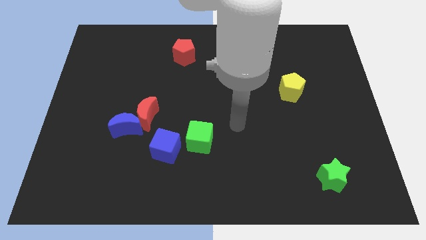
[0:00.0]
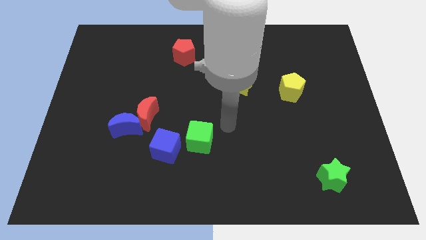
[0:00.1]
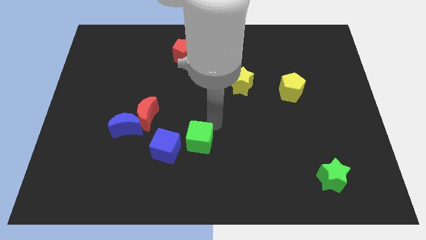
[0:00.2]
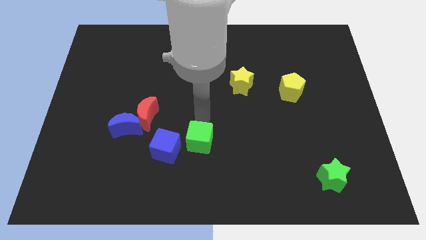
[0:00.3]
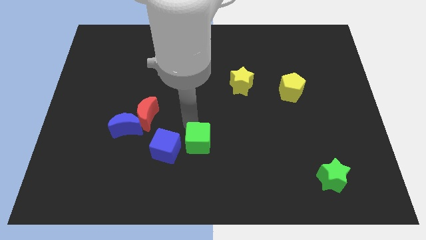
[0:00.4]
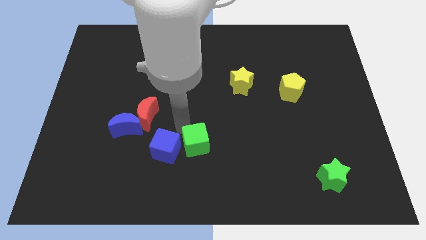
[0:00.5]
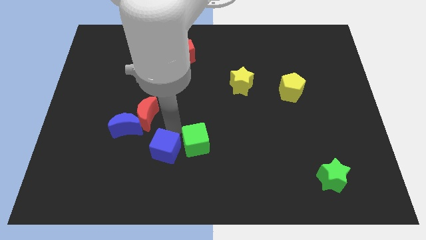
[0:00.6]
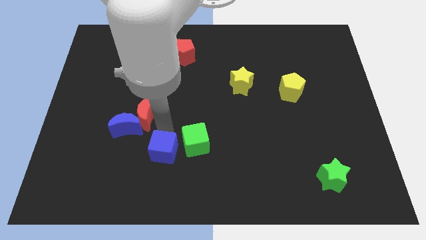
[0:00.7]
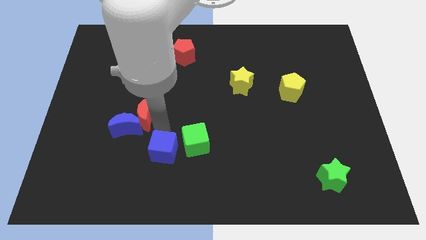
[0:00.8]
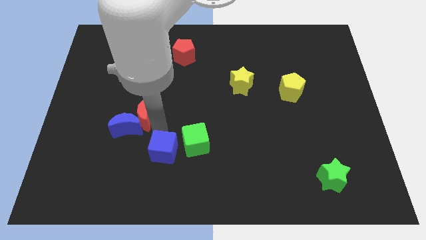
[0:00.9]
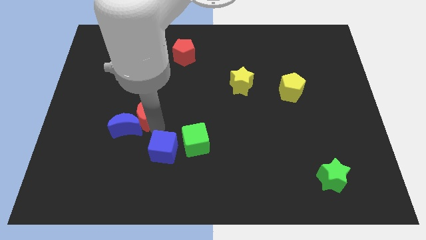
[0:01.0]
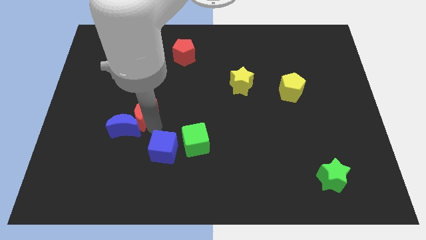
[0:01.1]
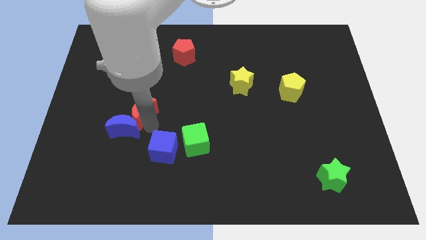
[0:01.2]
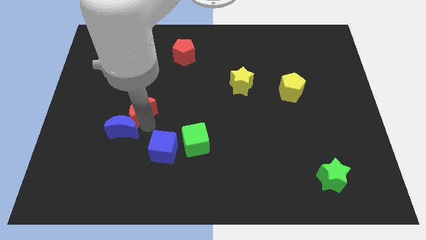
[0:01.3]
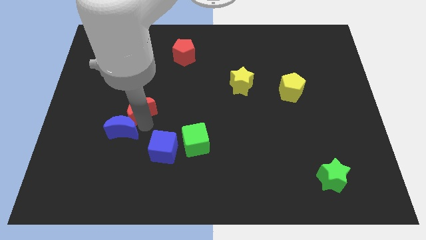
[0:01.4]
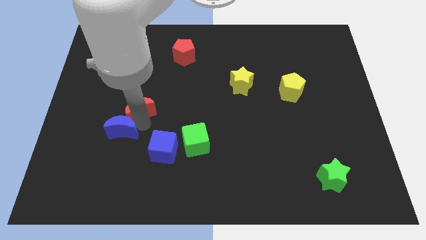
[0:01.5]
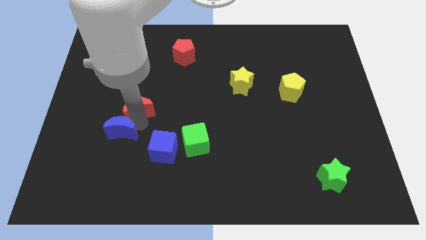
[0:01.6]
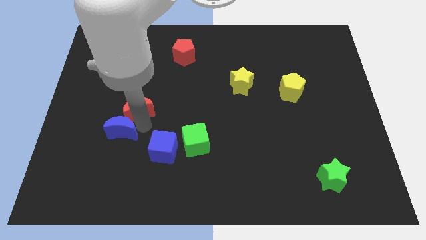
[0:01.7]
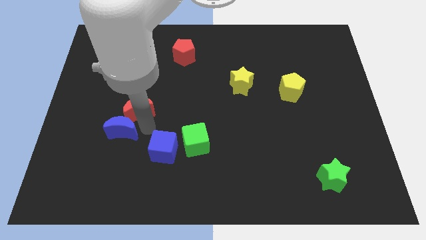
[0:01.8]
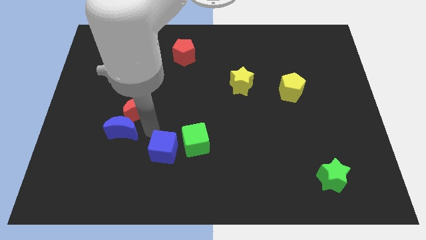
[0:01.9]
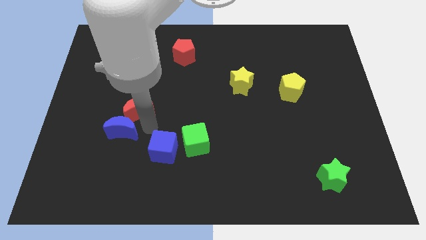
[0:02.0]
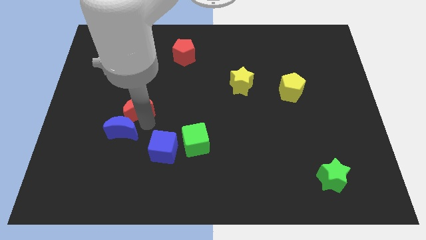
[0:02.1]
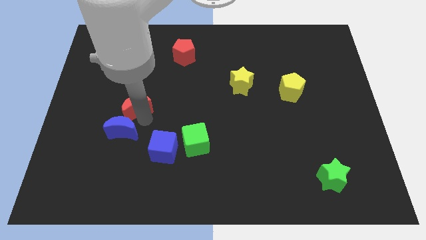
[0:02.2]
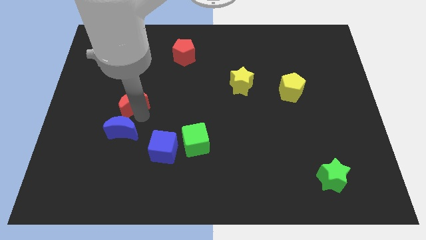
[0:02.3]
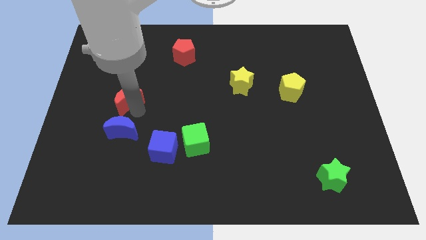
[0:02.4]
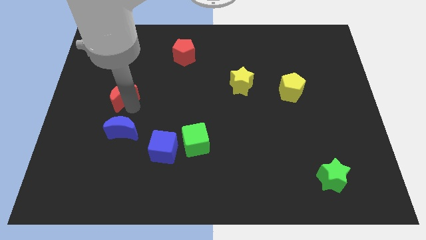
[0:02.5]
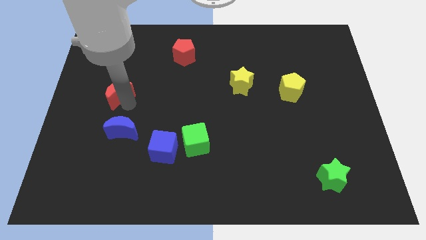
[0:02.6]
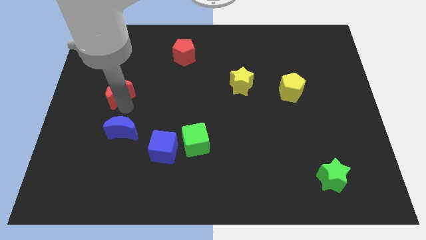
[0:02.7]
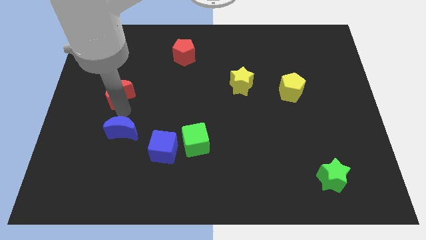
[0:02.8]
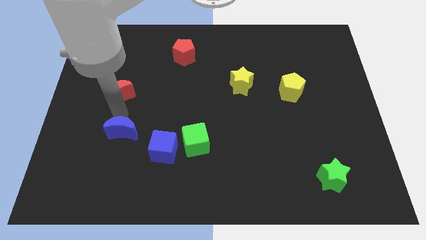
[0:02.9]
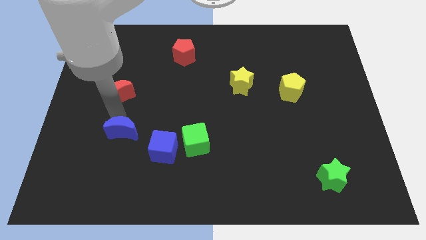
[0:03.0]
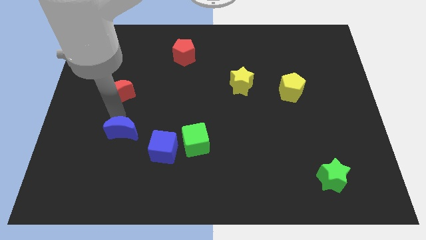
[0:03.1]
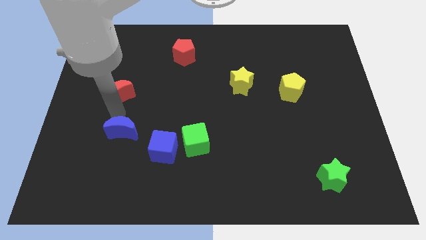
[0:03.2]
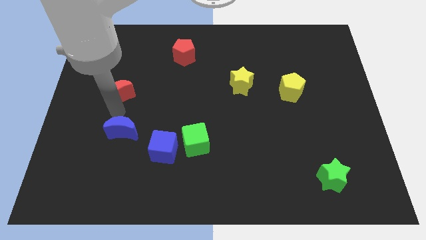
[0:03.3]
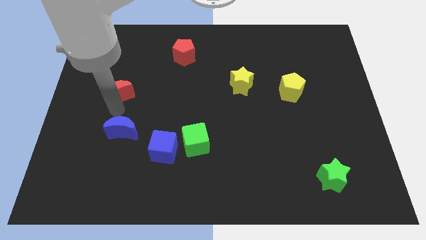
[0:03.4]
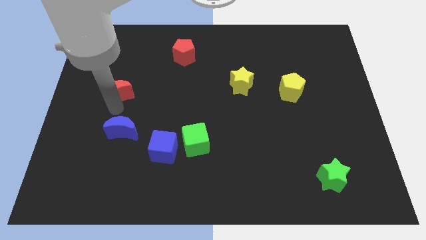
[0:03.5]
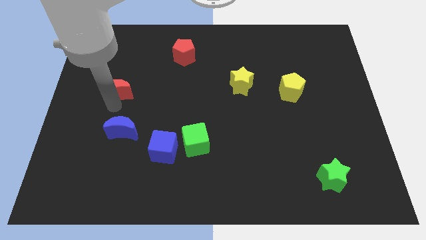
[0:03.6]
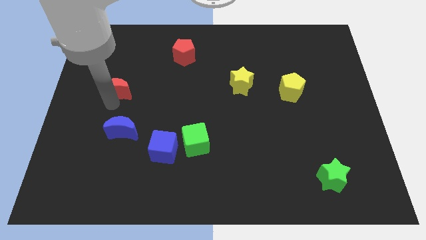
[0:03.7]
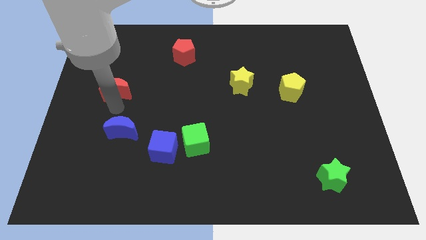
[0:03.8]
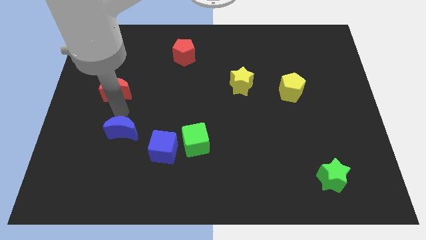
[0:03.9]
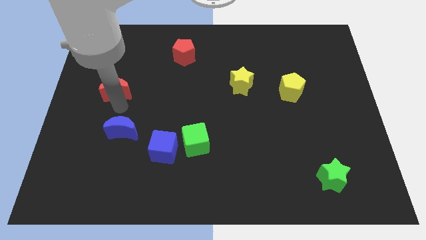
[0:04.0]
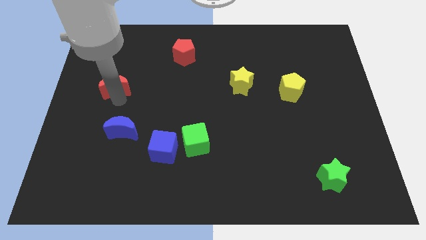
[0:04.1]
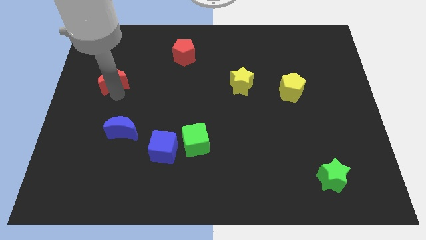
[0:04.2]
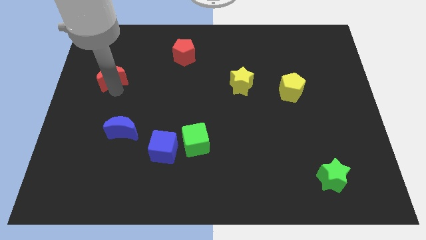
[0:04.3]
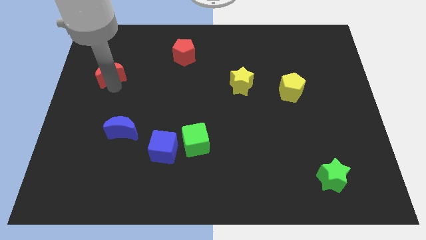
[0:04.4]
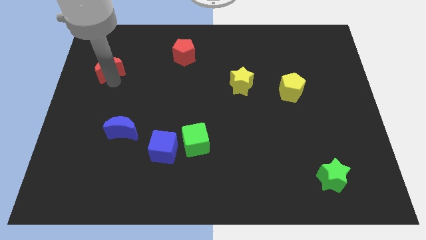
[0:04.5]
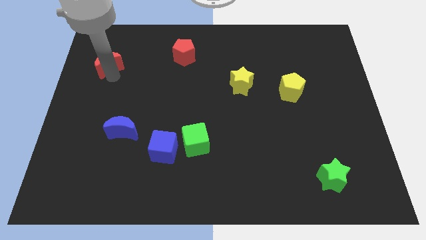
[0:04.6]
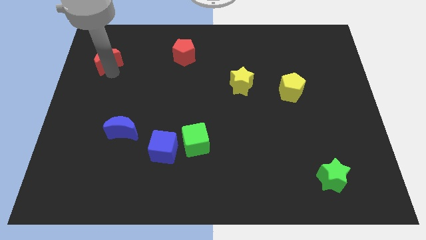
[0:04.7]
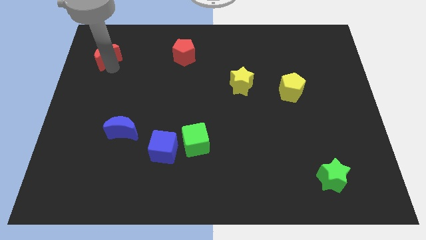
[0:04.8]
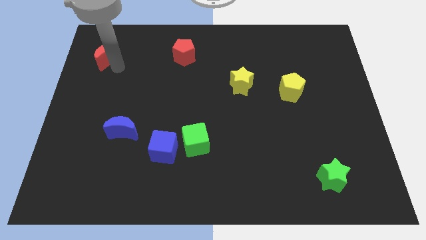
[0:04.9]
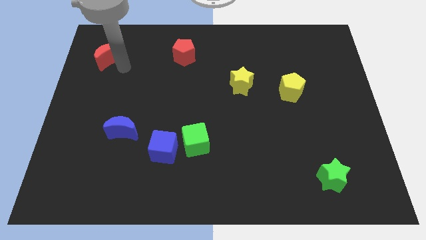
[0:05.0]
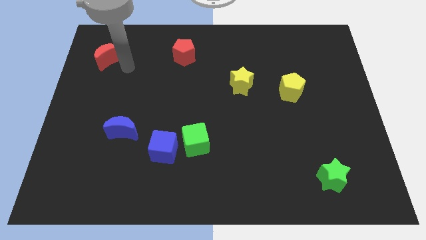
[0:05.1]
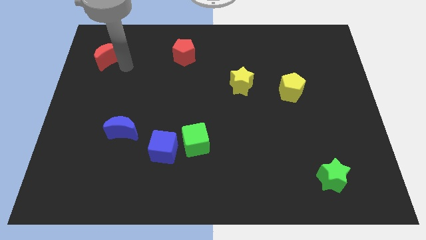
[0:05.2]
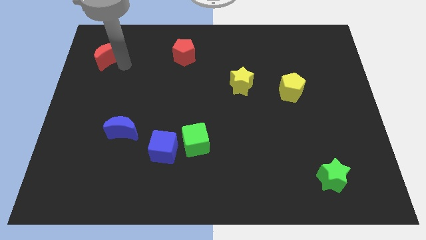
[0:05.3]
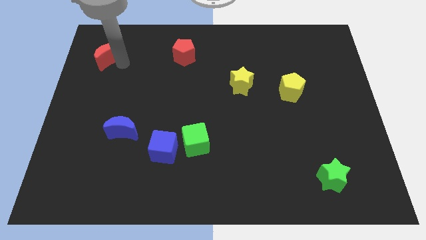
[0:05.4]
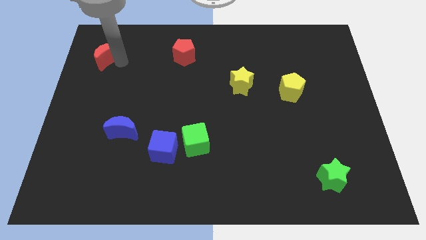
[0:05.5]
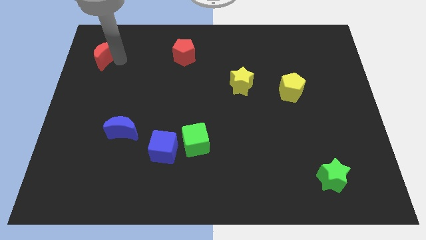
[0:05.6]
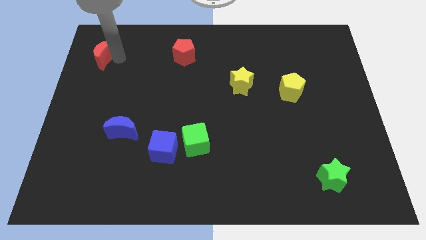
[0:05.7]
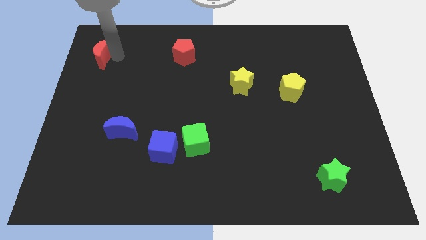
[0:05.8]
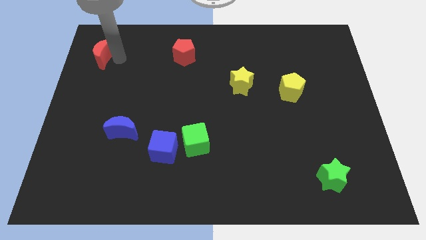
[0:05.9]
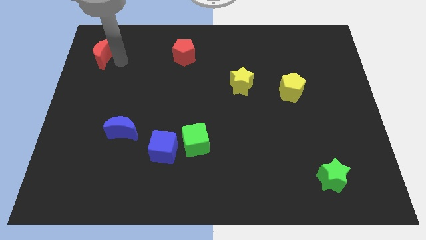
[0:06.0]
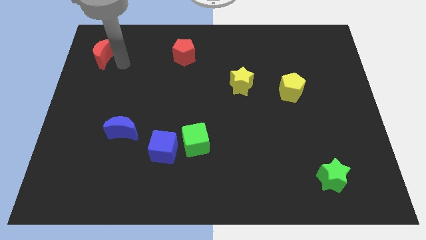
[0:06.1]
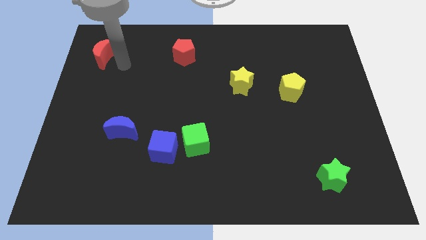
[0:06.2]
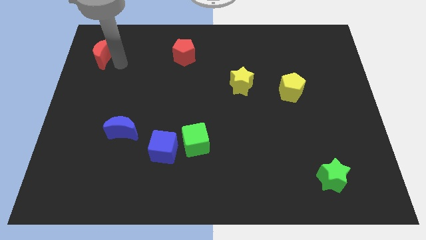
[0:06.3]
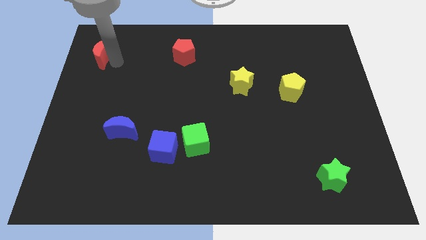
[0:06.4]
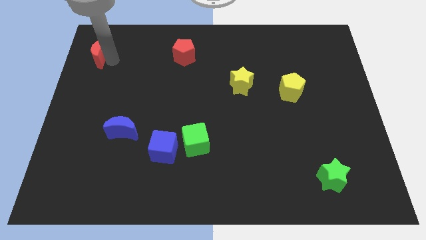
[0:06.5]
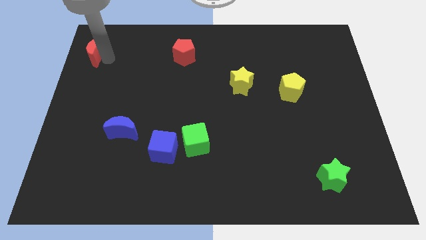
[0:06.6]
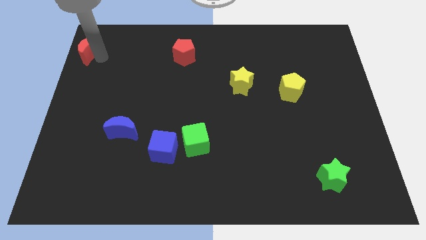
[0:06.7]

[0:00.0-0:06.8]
push the red moon to the upper left corner
